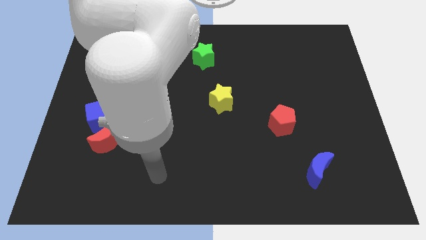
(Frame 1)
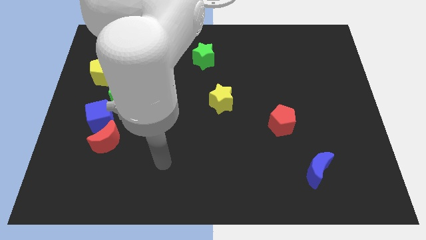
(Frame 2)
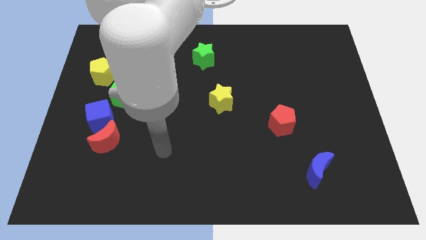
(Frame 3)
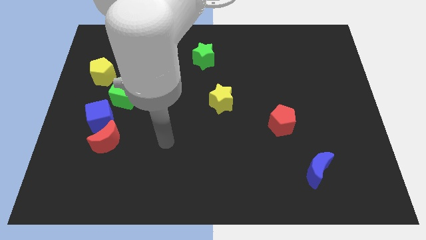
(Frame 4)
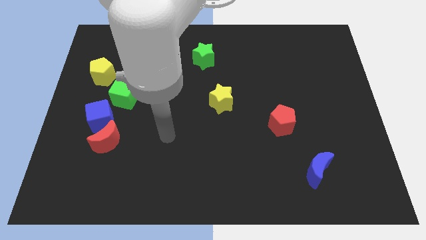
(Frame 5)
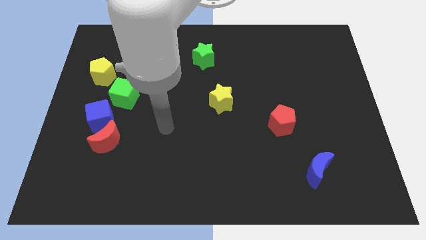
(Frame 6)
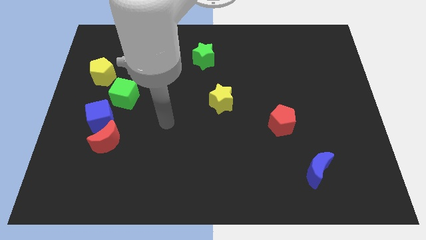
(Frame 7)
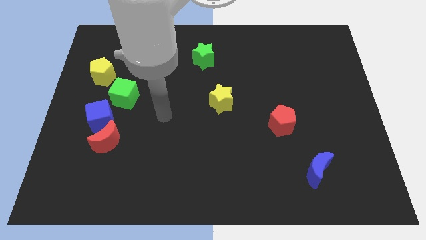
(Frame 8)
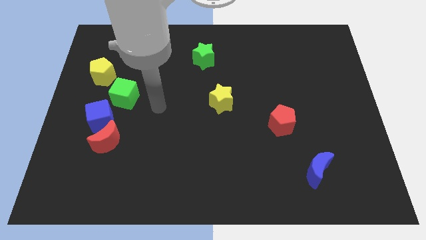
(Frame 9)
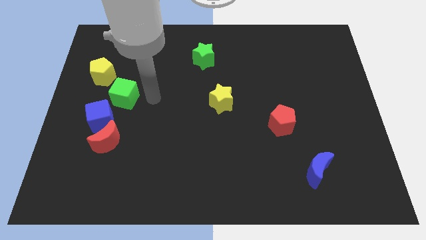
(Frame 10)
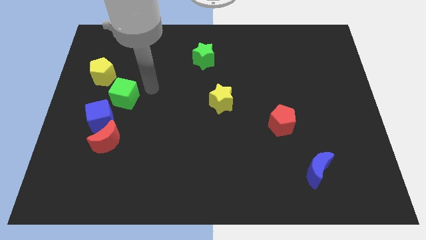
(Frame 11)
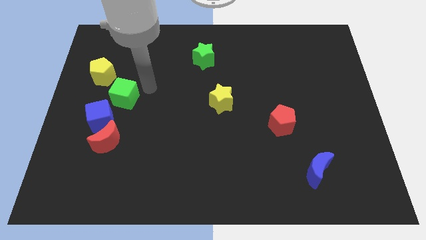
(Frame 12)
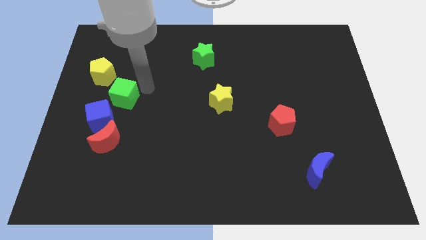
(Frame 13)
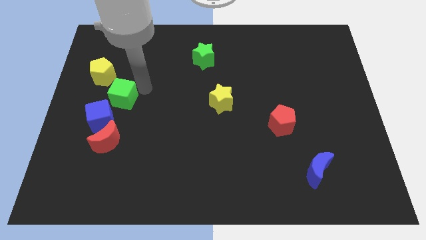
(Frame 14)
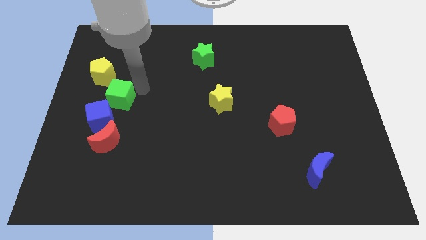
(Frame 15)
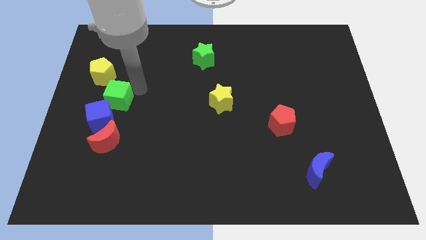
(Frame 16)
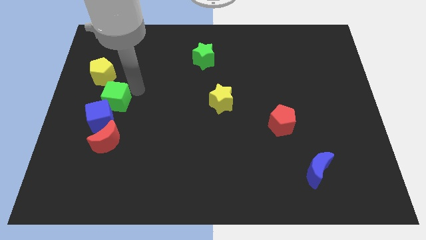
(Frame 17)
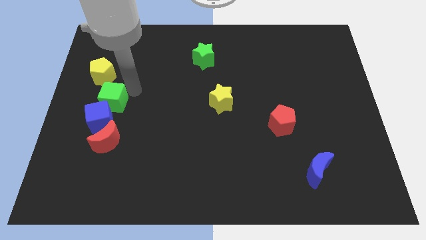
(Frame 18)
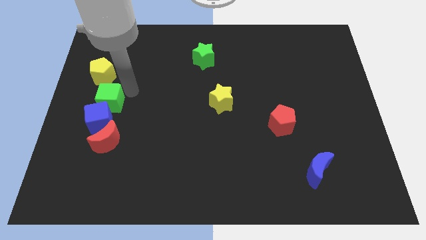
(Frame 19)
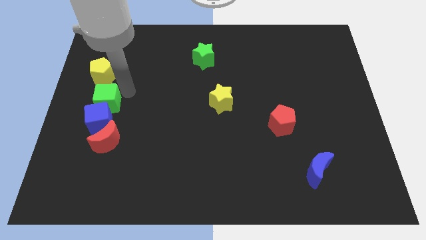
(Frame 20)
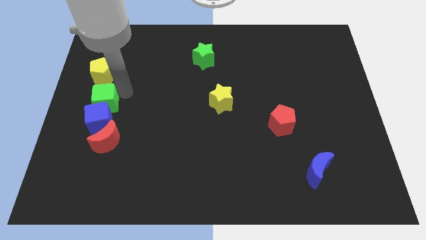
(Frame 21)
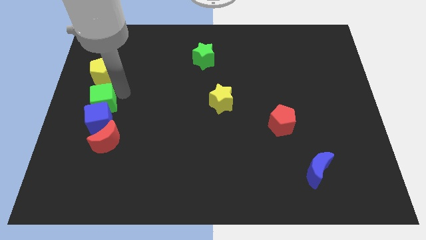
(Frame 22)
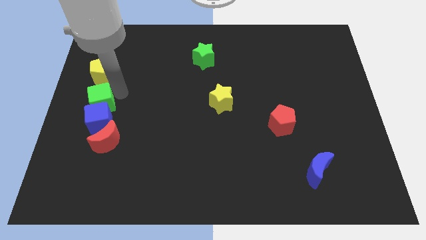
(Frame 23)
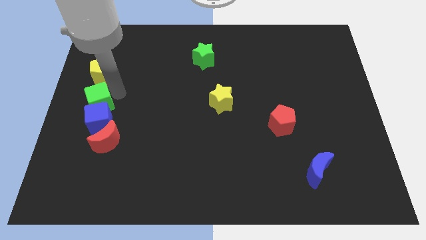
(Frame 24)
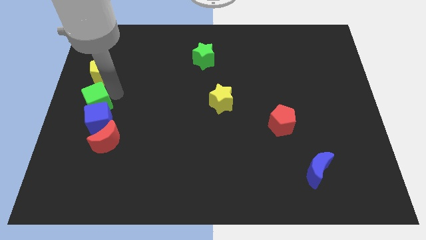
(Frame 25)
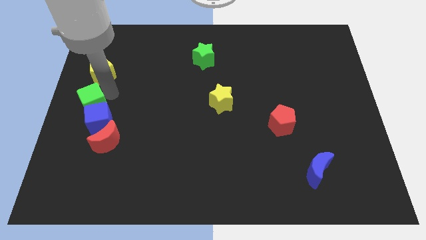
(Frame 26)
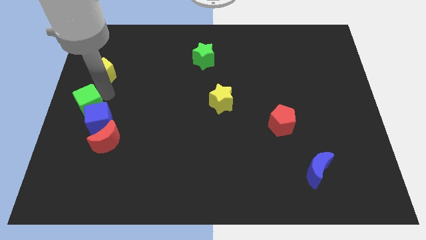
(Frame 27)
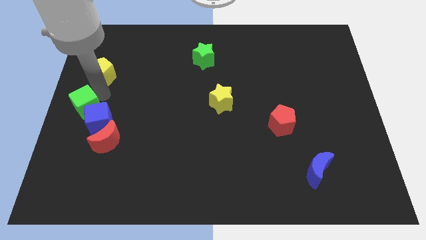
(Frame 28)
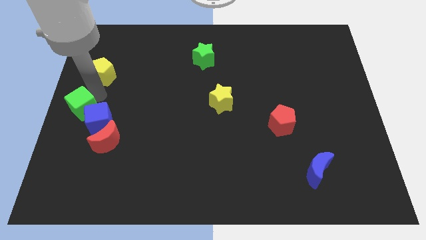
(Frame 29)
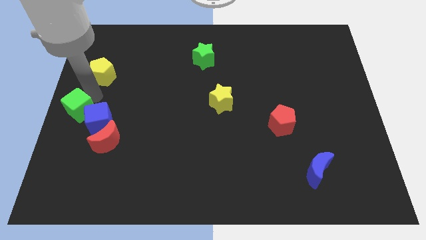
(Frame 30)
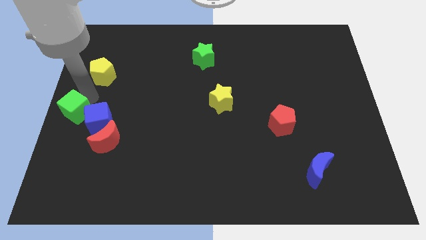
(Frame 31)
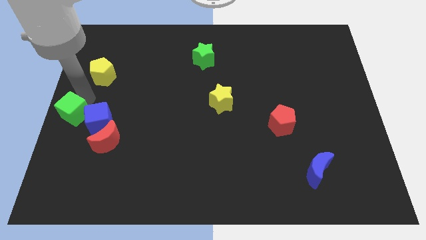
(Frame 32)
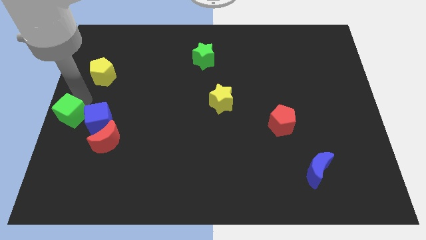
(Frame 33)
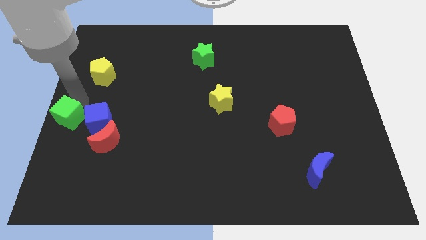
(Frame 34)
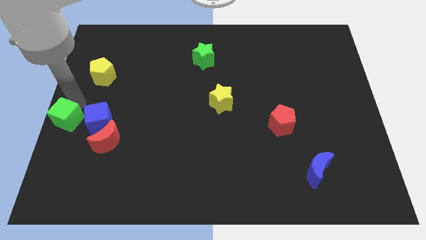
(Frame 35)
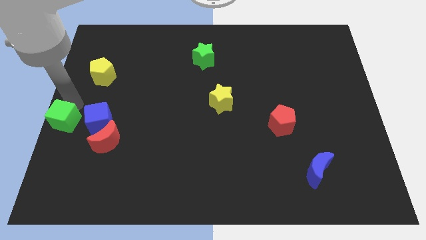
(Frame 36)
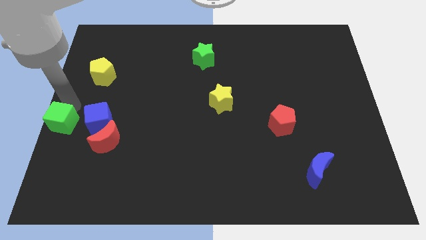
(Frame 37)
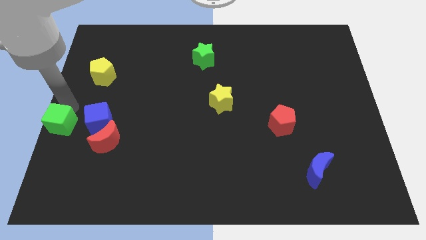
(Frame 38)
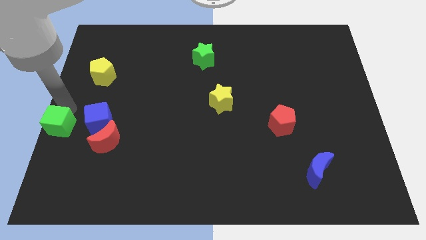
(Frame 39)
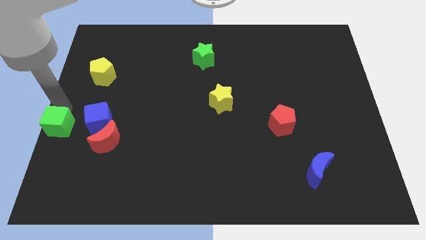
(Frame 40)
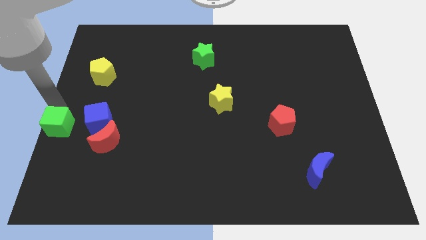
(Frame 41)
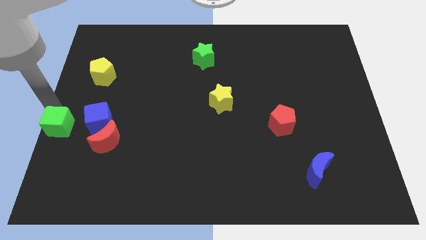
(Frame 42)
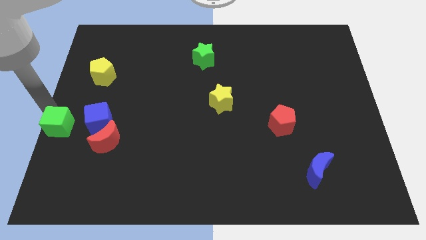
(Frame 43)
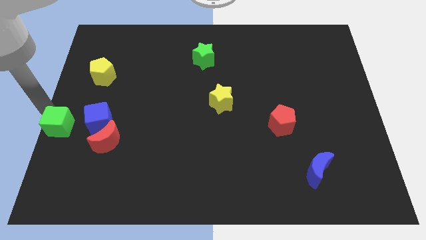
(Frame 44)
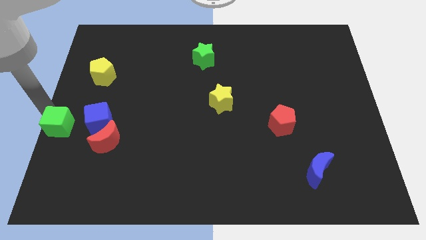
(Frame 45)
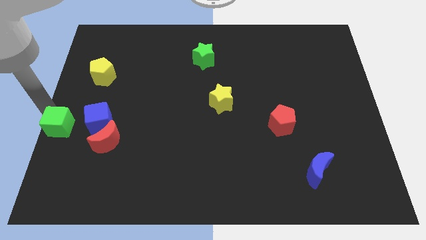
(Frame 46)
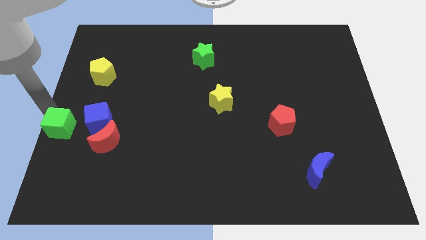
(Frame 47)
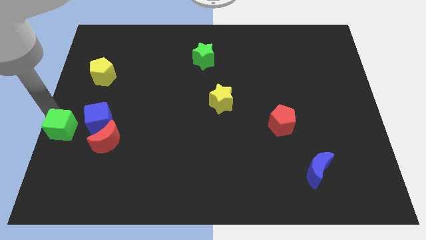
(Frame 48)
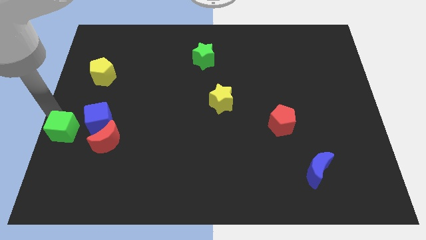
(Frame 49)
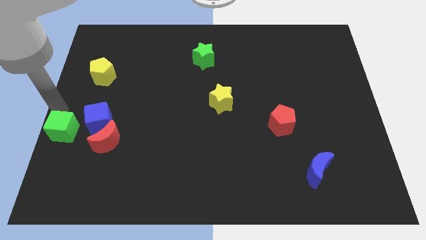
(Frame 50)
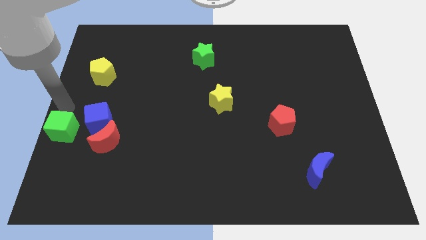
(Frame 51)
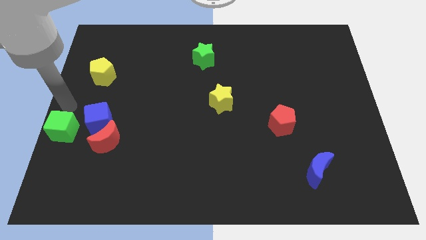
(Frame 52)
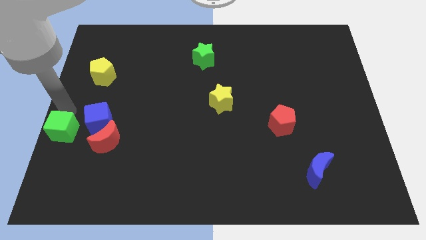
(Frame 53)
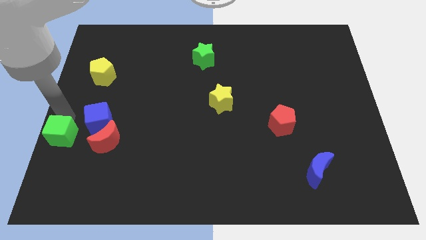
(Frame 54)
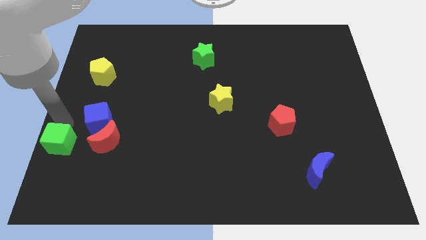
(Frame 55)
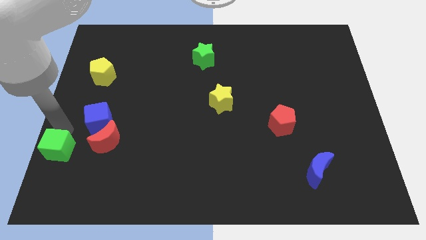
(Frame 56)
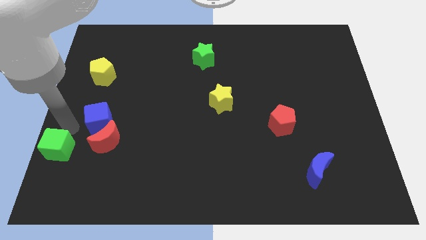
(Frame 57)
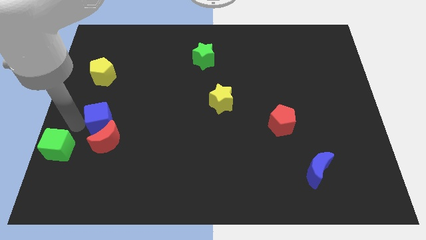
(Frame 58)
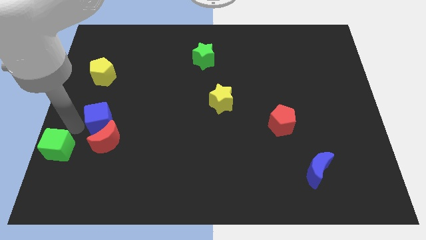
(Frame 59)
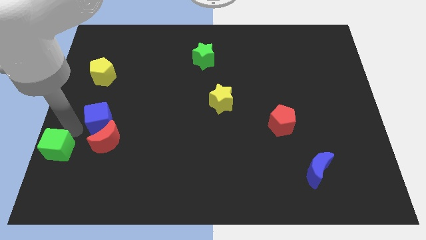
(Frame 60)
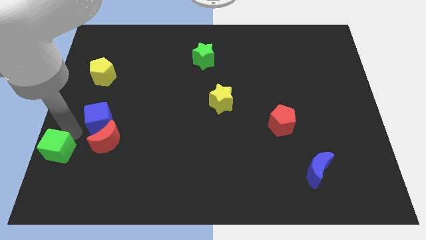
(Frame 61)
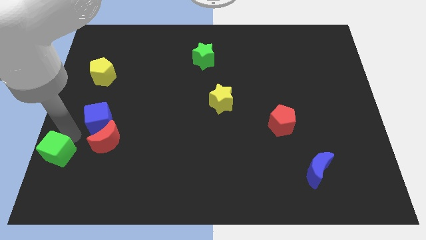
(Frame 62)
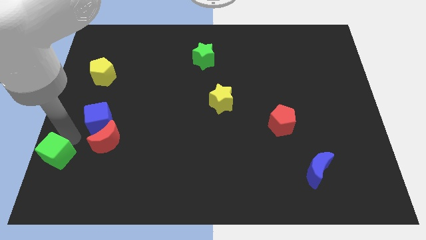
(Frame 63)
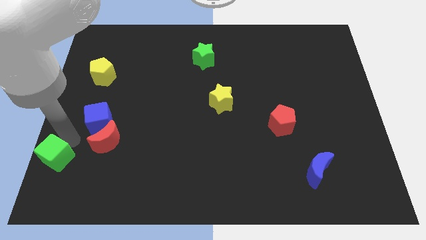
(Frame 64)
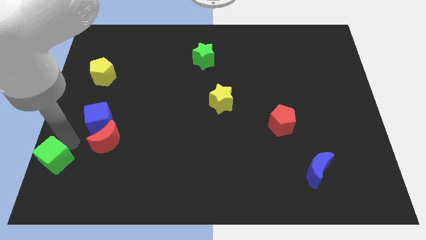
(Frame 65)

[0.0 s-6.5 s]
push the green cube to the lower left corner
